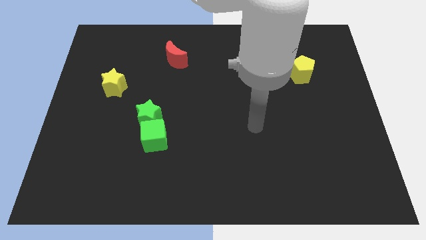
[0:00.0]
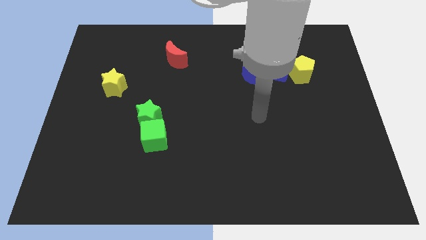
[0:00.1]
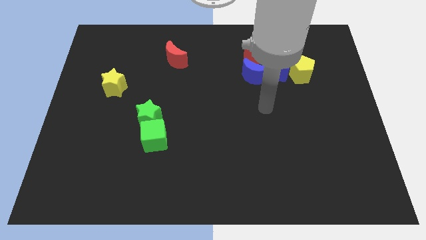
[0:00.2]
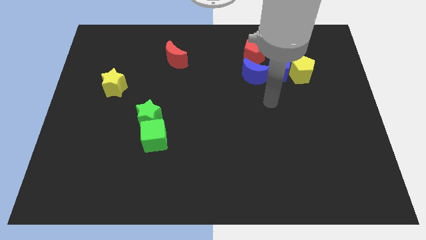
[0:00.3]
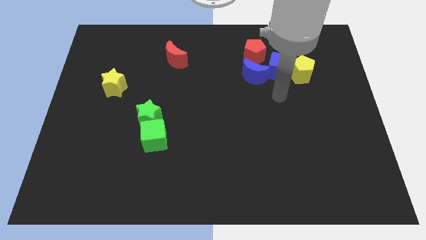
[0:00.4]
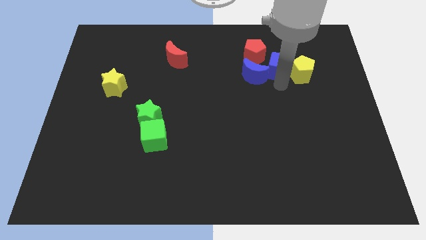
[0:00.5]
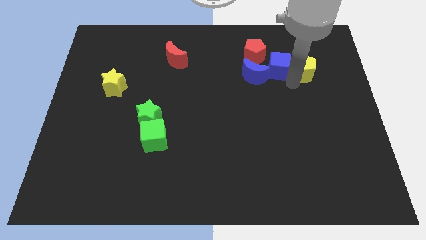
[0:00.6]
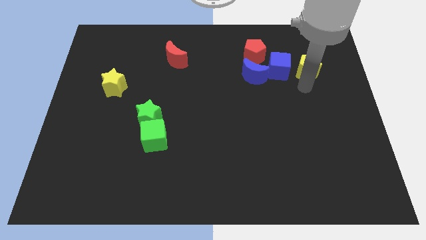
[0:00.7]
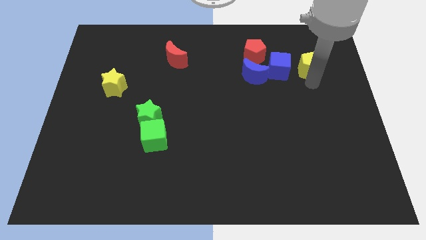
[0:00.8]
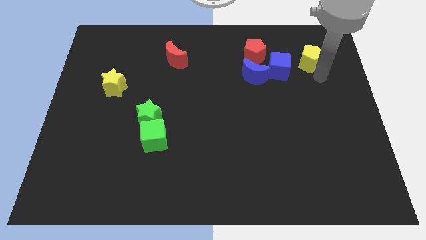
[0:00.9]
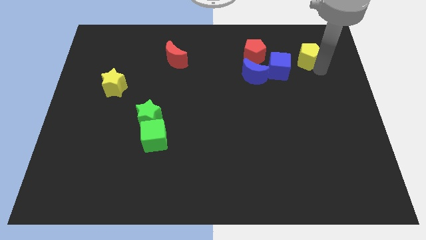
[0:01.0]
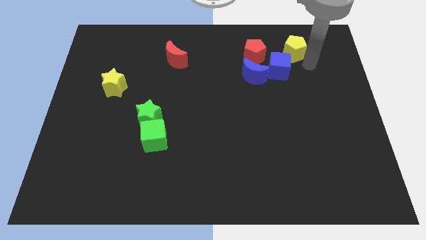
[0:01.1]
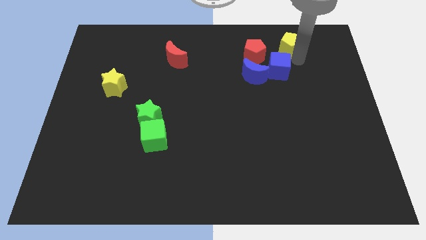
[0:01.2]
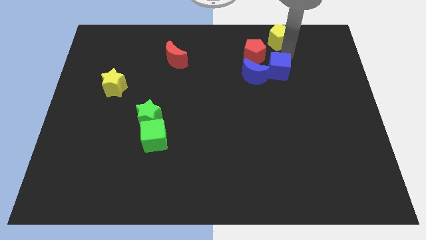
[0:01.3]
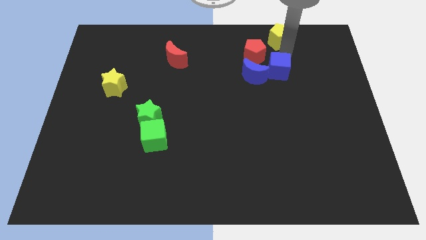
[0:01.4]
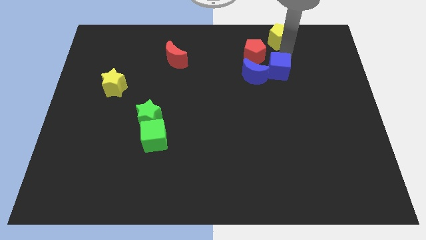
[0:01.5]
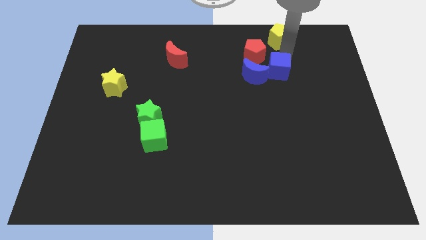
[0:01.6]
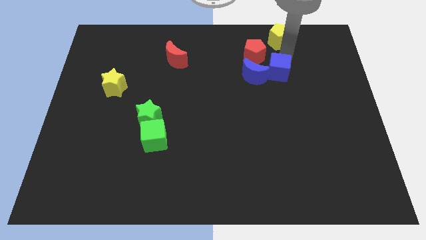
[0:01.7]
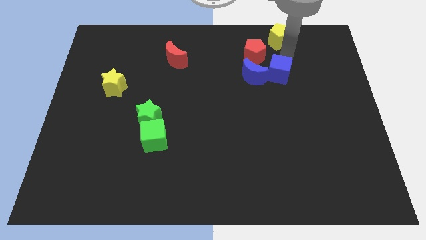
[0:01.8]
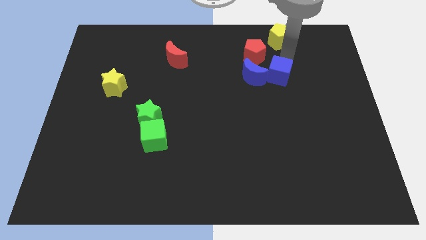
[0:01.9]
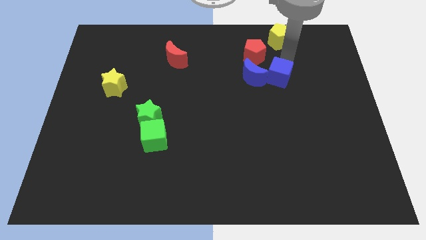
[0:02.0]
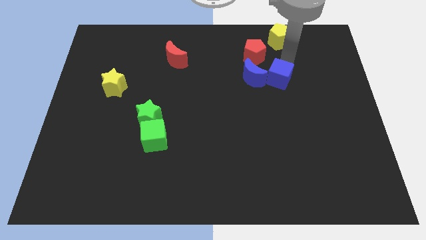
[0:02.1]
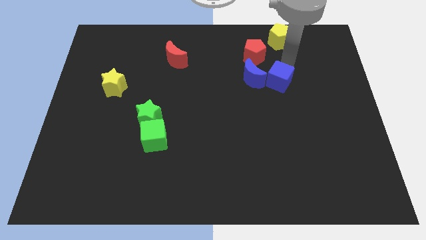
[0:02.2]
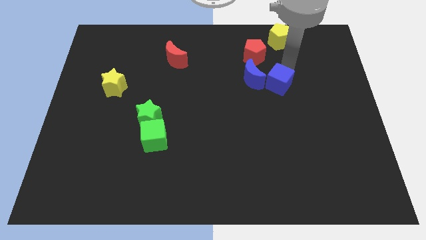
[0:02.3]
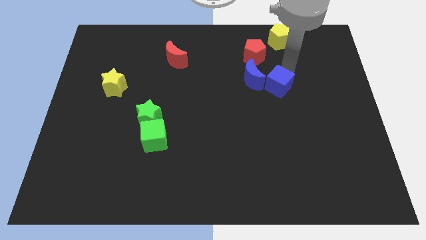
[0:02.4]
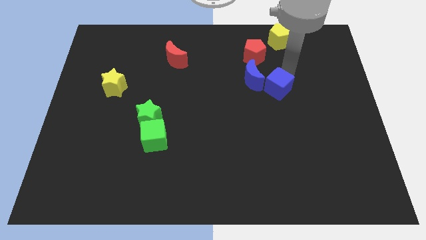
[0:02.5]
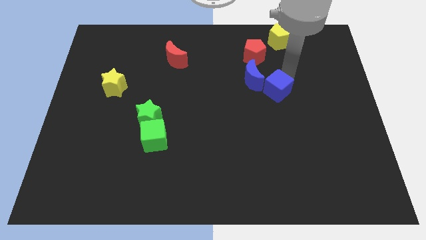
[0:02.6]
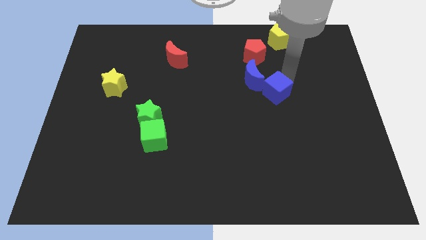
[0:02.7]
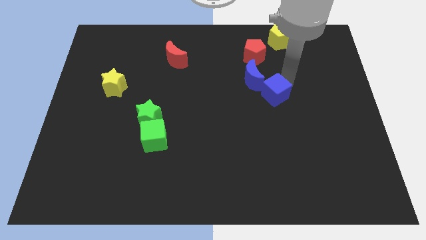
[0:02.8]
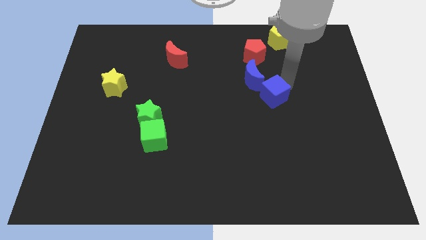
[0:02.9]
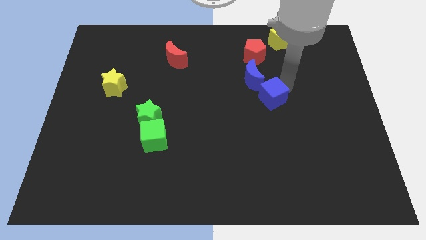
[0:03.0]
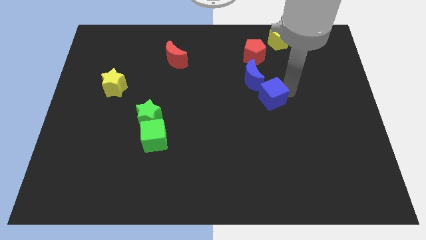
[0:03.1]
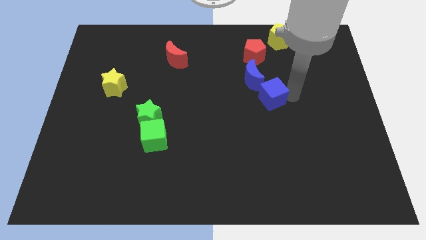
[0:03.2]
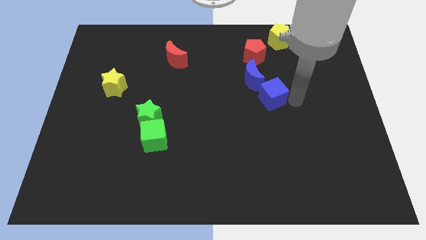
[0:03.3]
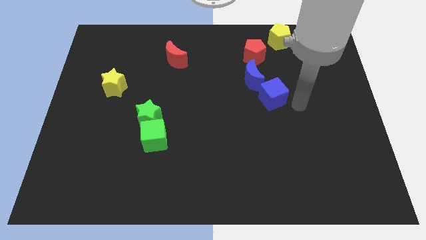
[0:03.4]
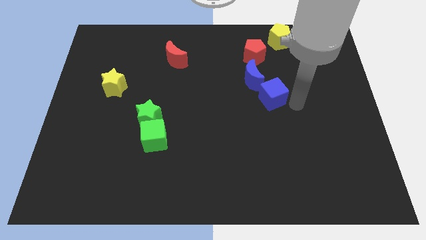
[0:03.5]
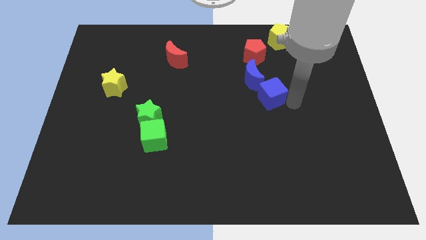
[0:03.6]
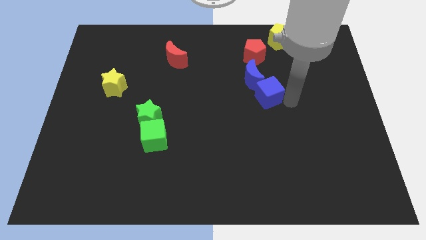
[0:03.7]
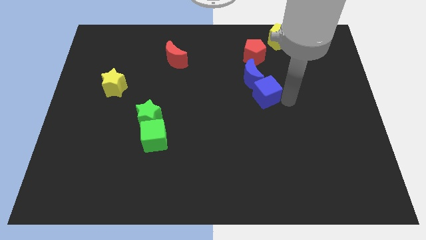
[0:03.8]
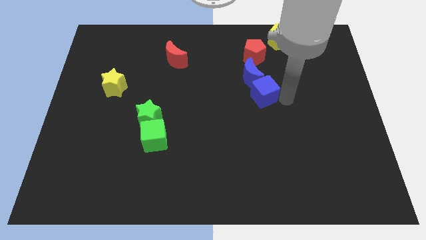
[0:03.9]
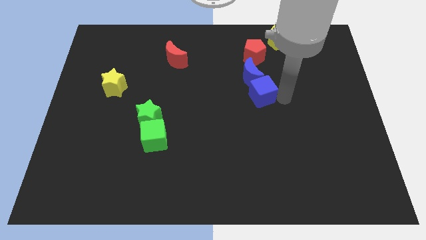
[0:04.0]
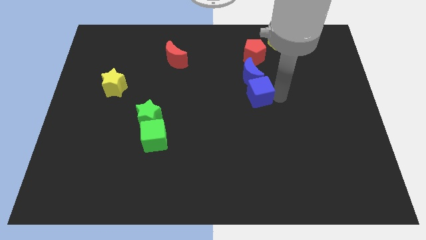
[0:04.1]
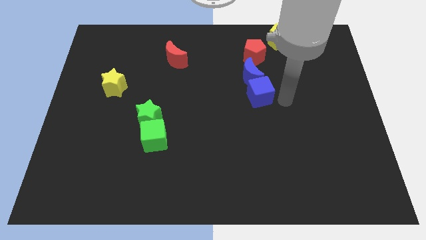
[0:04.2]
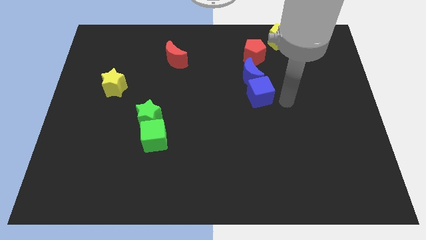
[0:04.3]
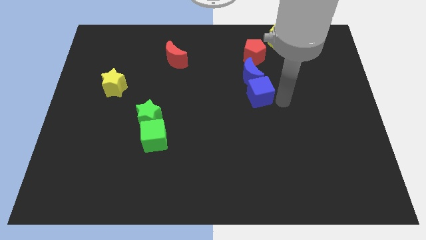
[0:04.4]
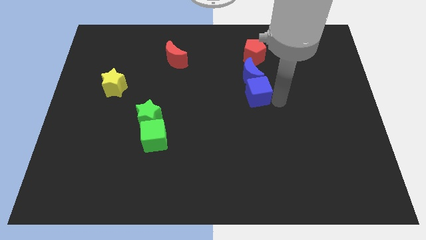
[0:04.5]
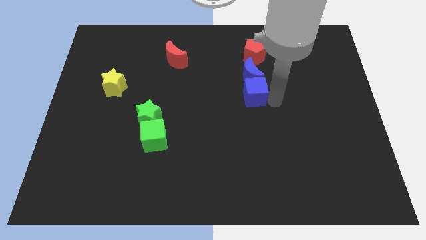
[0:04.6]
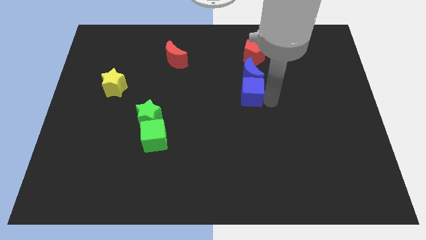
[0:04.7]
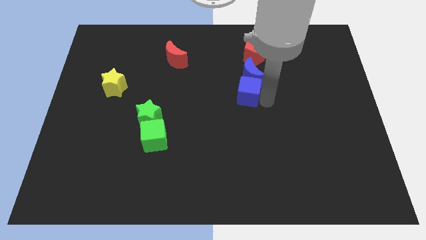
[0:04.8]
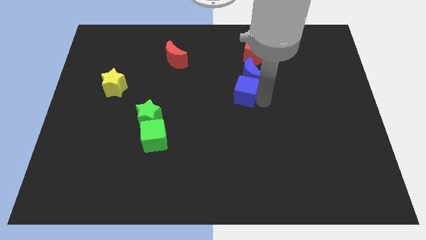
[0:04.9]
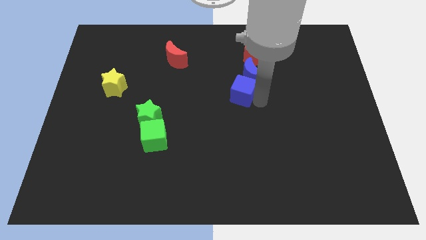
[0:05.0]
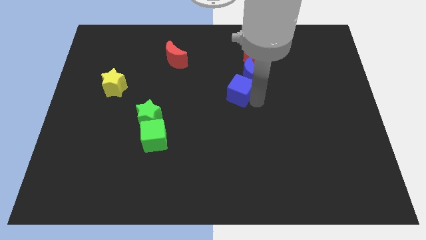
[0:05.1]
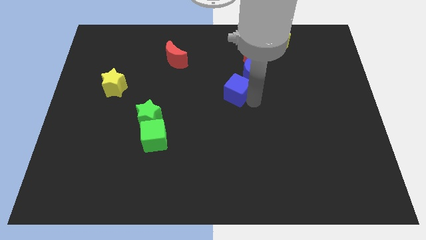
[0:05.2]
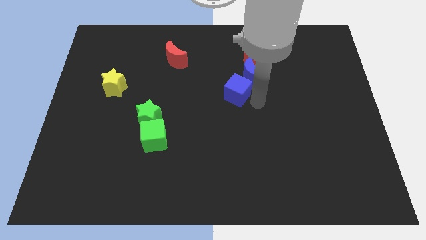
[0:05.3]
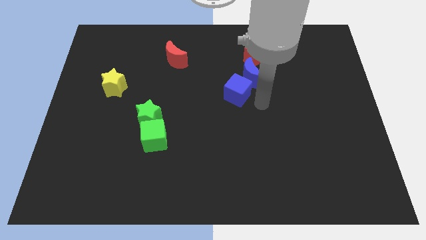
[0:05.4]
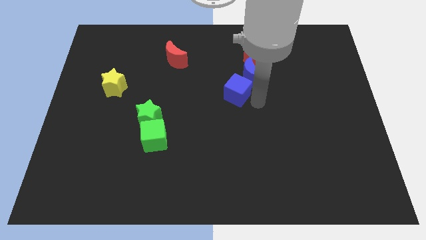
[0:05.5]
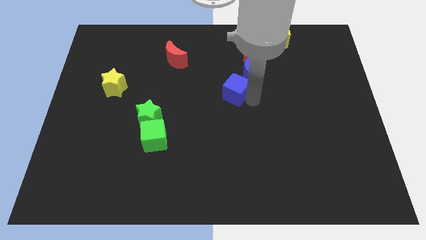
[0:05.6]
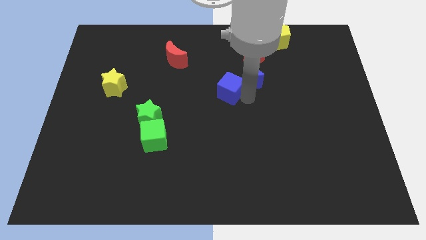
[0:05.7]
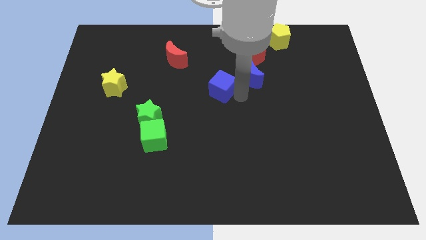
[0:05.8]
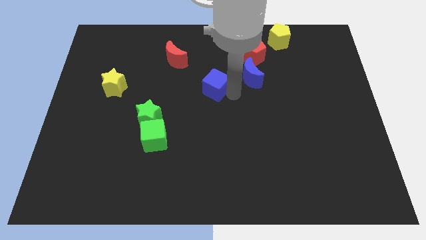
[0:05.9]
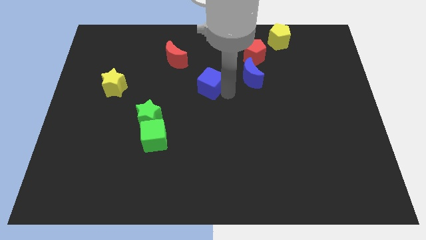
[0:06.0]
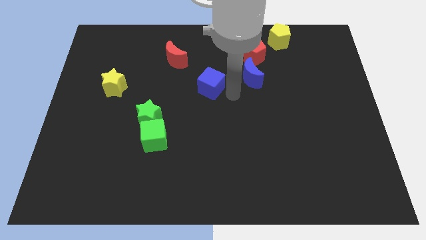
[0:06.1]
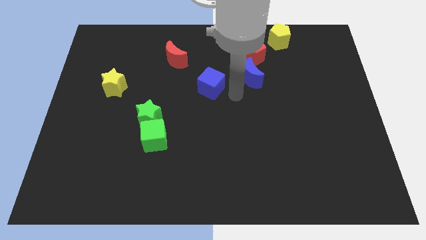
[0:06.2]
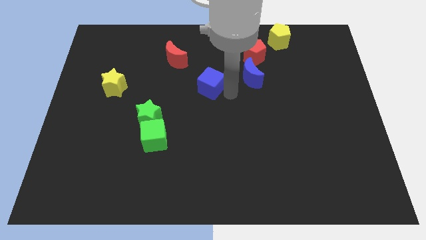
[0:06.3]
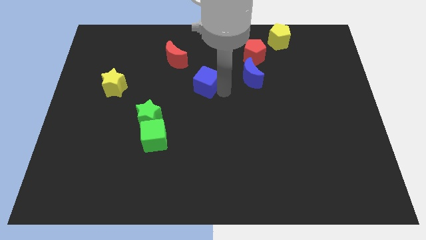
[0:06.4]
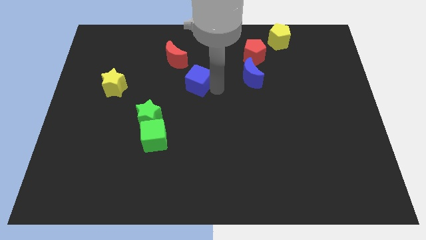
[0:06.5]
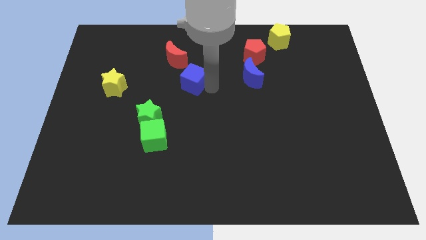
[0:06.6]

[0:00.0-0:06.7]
move the blue cube to the left

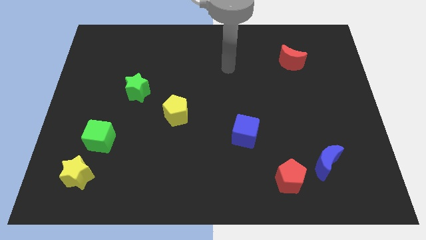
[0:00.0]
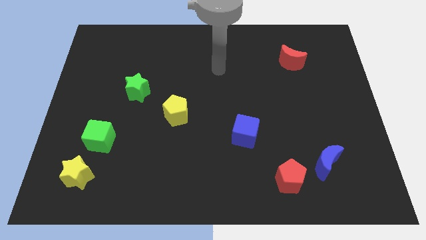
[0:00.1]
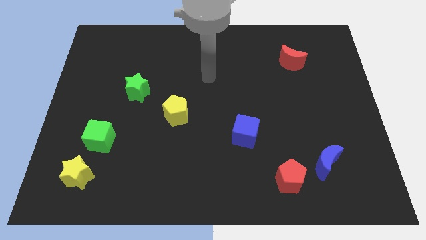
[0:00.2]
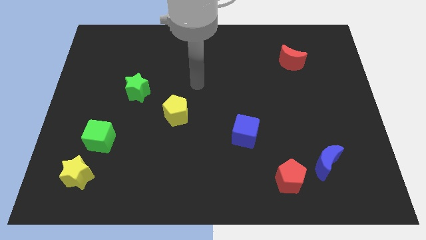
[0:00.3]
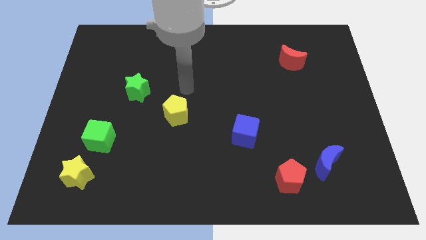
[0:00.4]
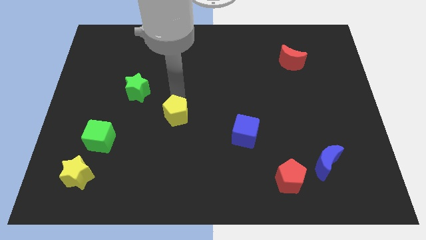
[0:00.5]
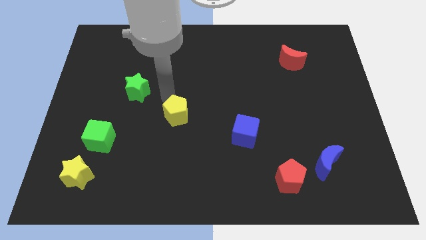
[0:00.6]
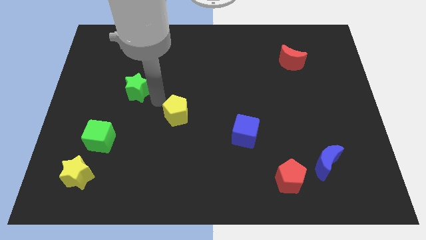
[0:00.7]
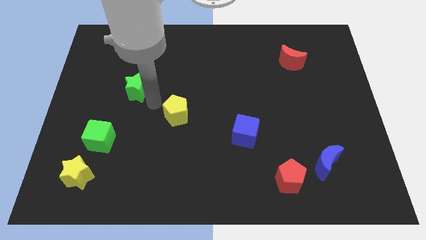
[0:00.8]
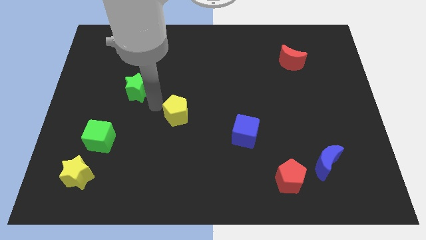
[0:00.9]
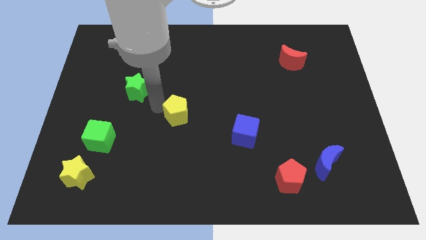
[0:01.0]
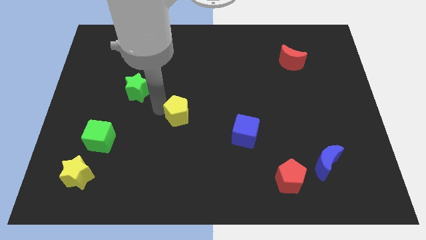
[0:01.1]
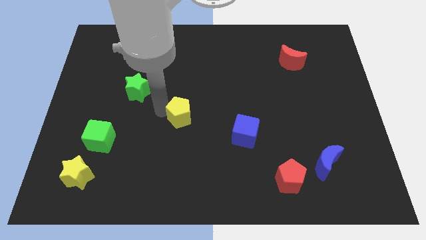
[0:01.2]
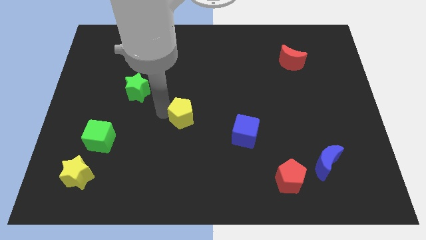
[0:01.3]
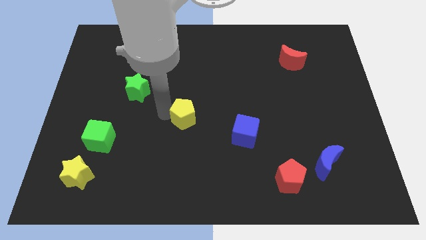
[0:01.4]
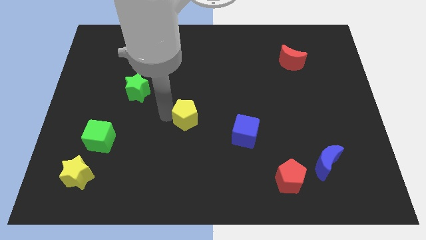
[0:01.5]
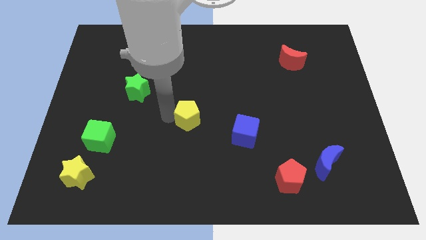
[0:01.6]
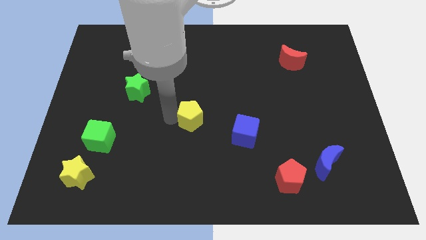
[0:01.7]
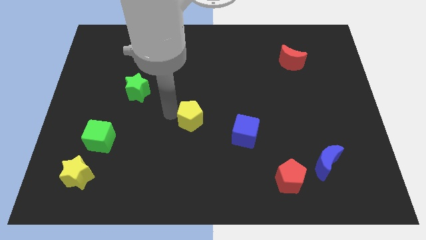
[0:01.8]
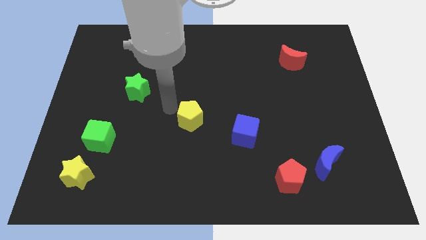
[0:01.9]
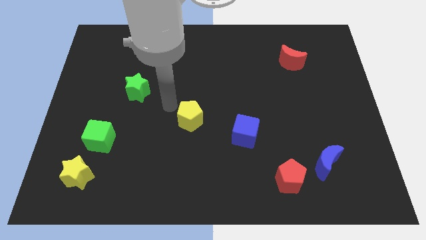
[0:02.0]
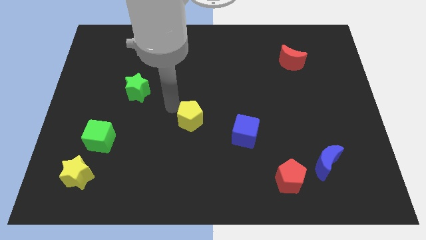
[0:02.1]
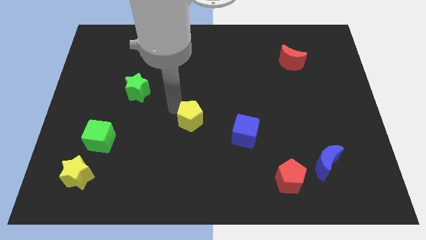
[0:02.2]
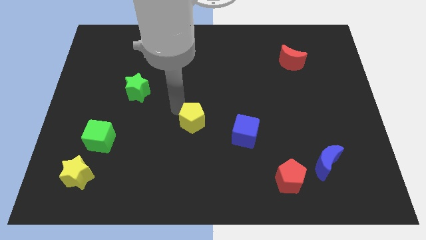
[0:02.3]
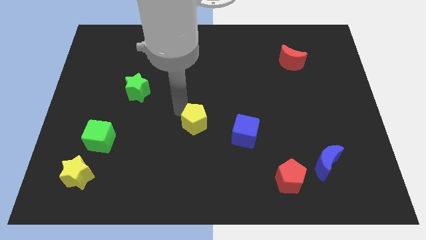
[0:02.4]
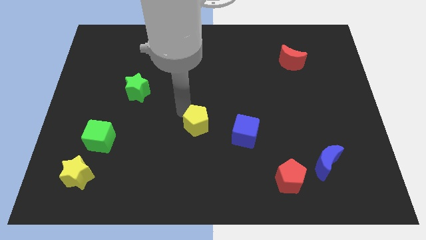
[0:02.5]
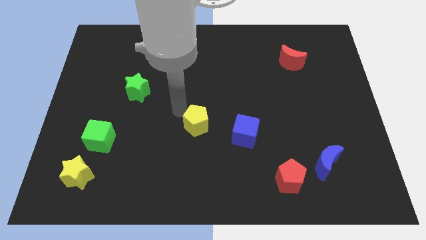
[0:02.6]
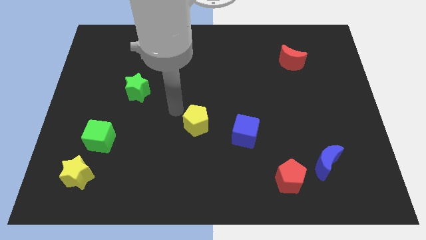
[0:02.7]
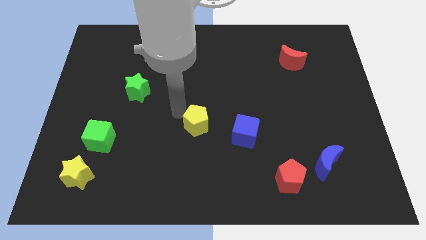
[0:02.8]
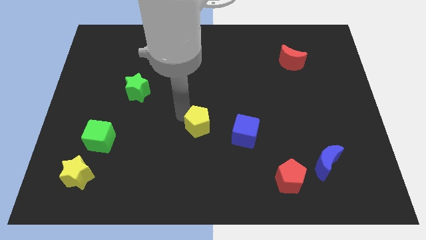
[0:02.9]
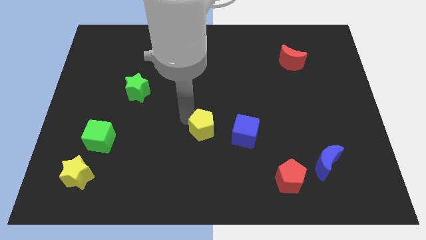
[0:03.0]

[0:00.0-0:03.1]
slightly move the yellow pentagon downwards and then right
